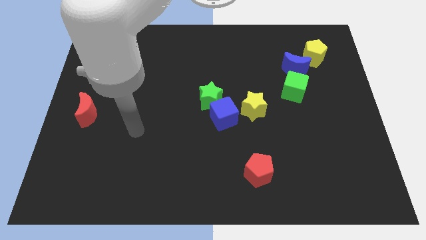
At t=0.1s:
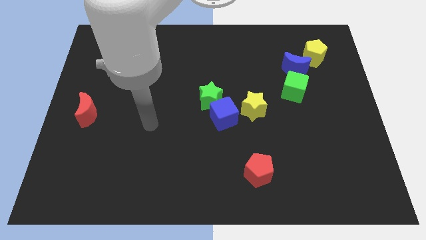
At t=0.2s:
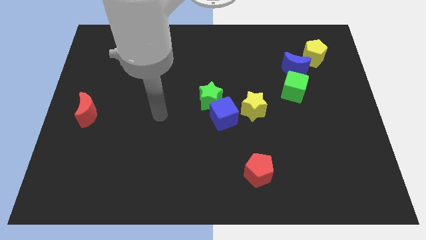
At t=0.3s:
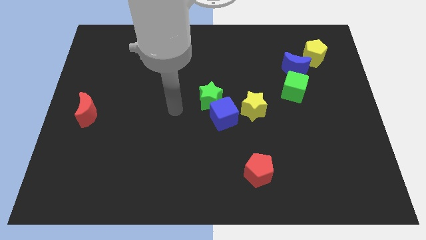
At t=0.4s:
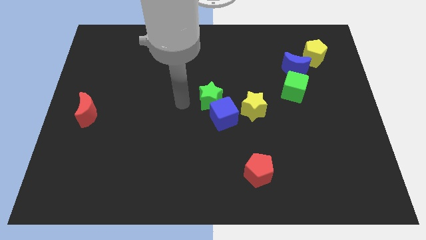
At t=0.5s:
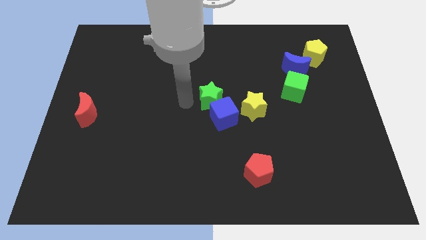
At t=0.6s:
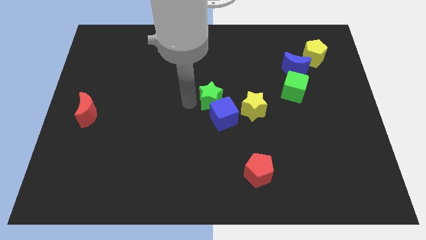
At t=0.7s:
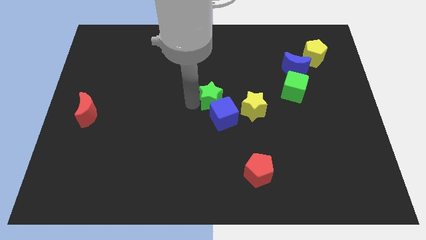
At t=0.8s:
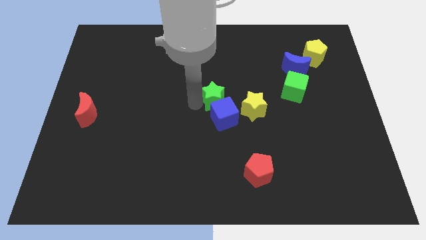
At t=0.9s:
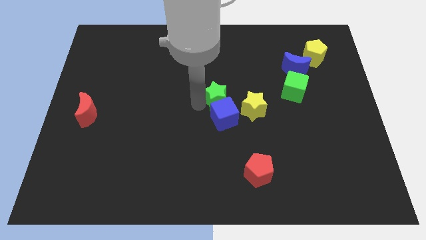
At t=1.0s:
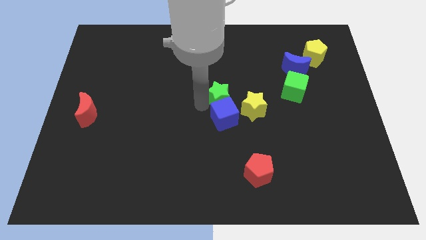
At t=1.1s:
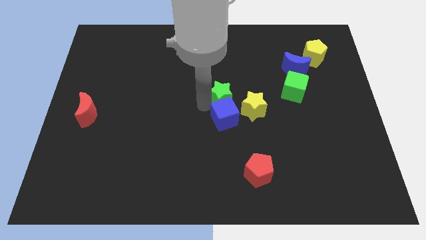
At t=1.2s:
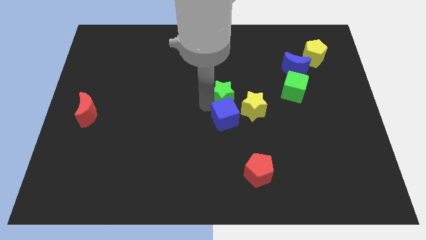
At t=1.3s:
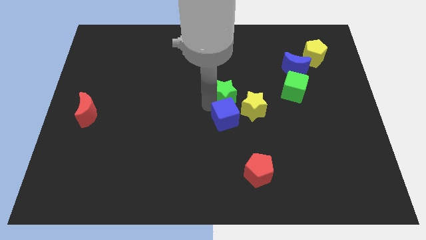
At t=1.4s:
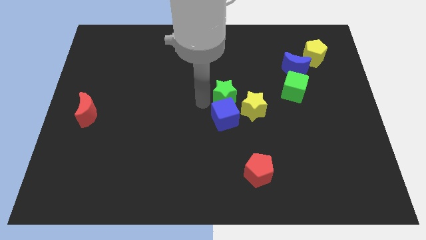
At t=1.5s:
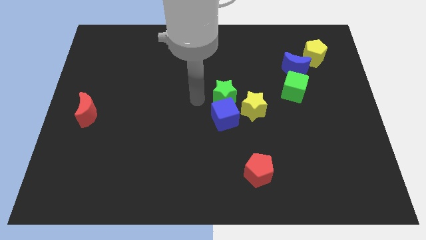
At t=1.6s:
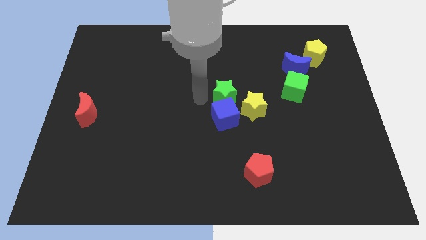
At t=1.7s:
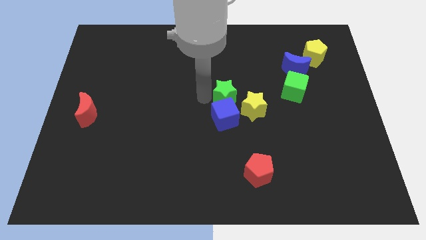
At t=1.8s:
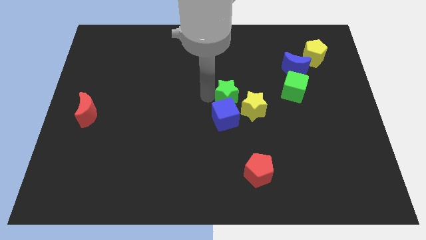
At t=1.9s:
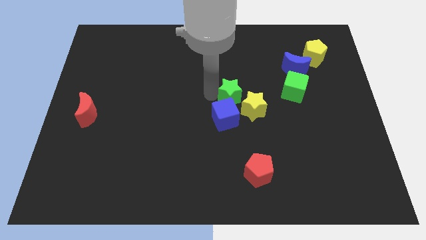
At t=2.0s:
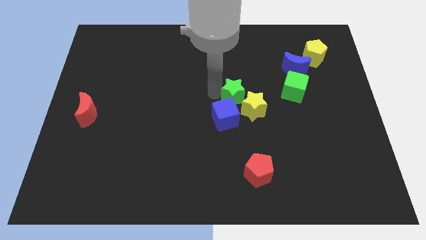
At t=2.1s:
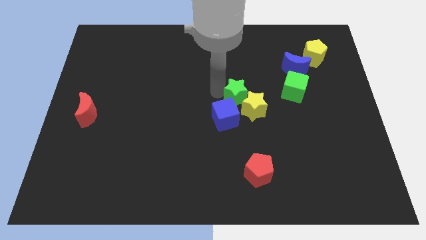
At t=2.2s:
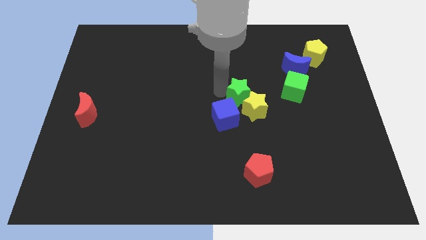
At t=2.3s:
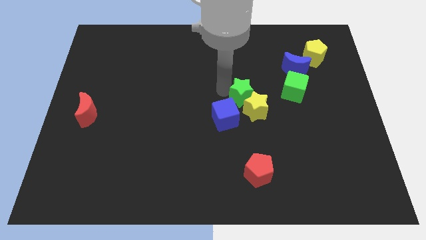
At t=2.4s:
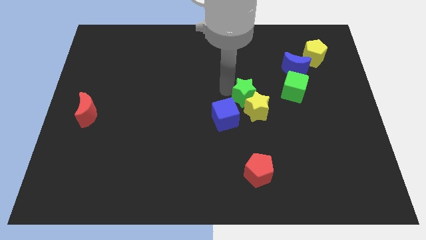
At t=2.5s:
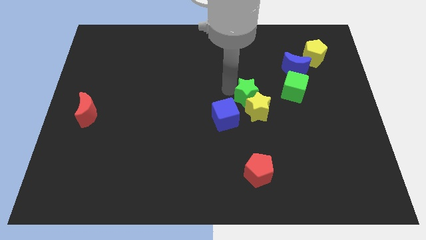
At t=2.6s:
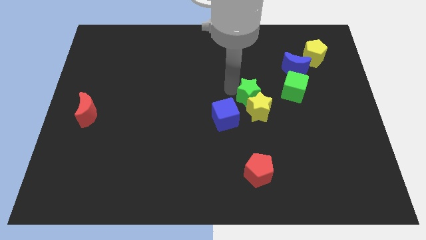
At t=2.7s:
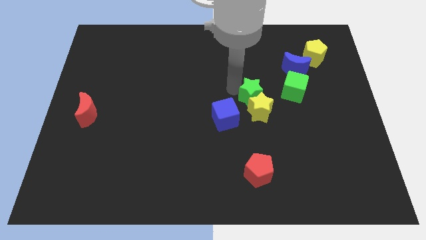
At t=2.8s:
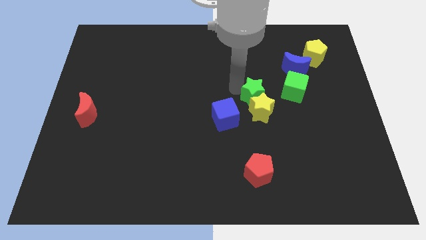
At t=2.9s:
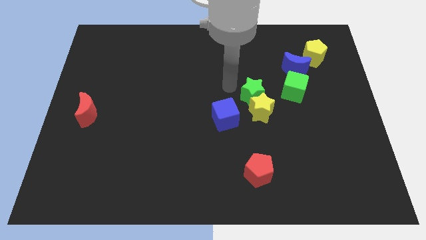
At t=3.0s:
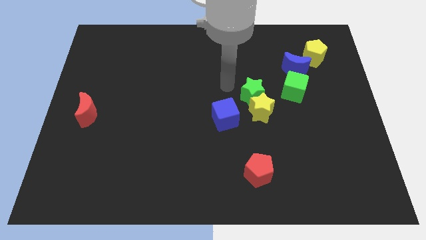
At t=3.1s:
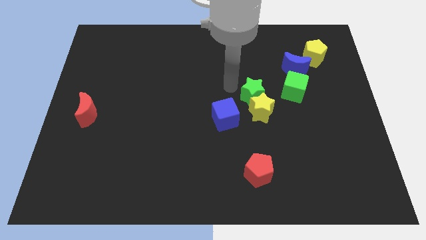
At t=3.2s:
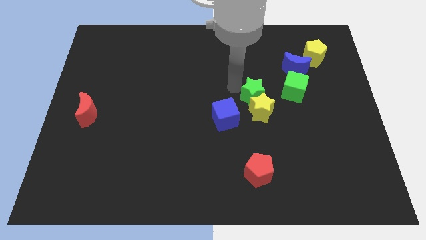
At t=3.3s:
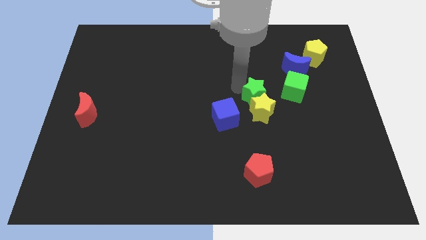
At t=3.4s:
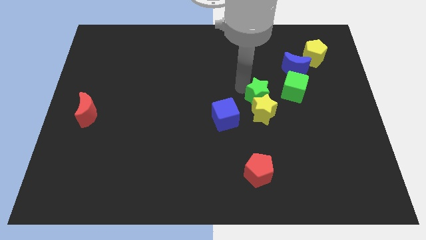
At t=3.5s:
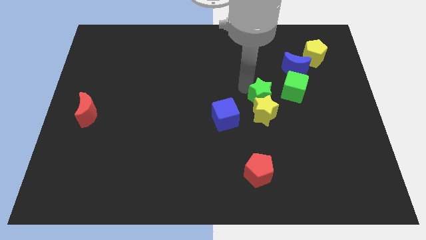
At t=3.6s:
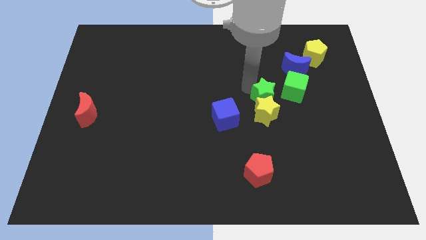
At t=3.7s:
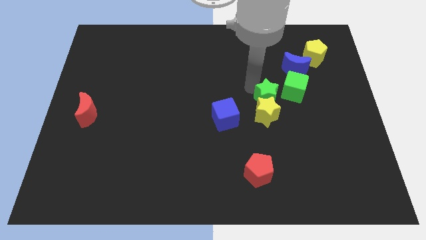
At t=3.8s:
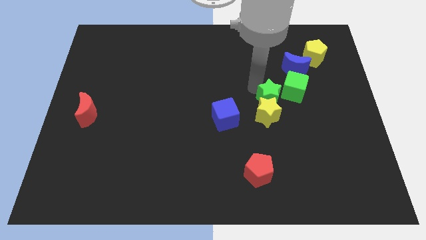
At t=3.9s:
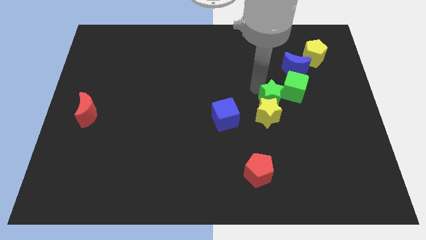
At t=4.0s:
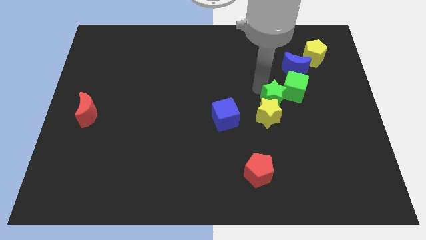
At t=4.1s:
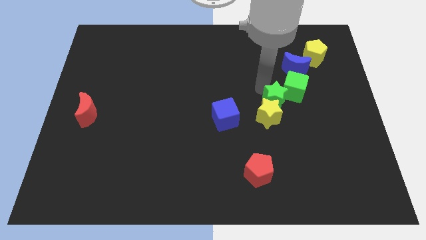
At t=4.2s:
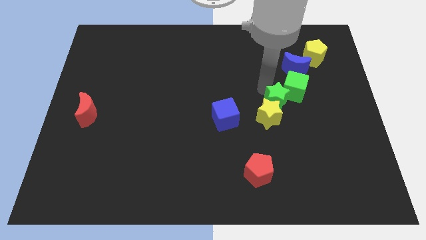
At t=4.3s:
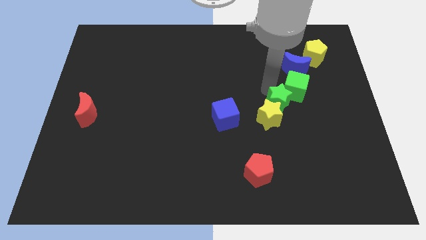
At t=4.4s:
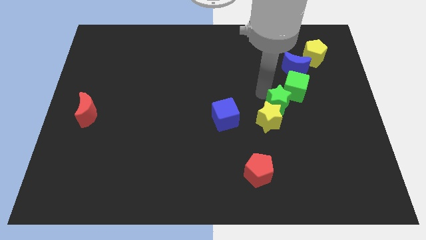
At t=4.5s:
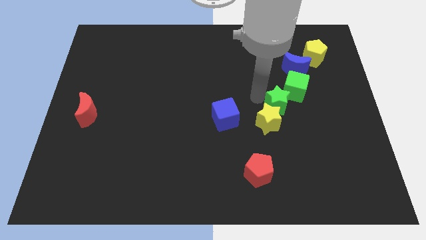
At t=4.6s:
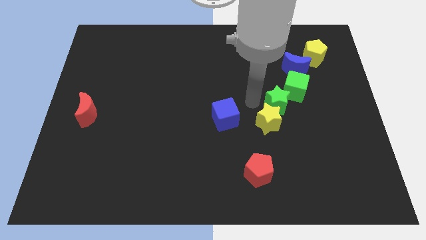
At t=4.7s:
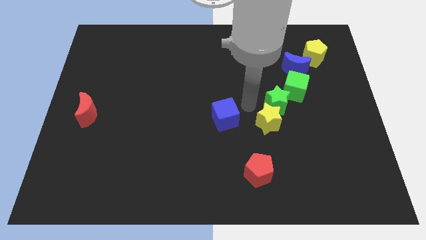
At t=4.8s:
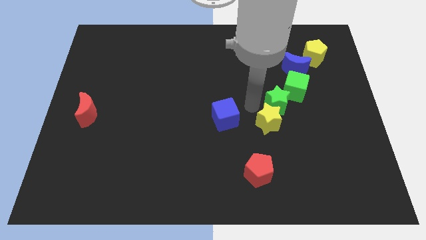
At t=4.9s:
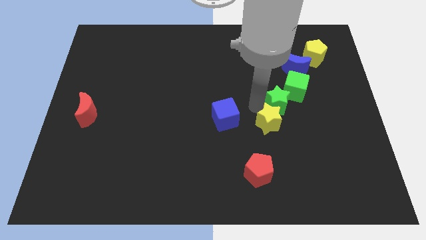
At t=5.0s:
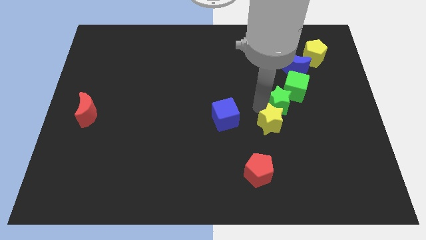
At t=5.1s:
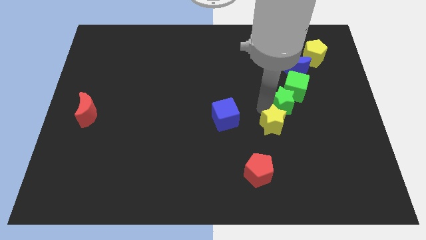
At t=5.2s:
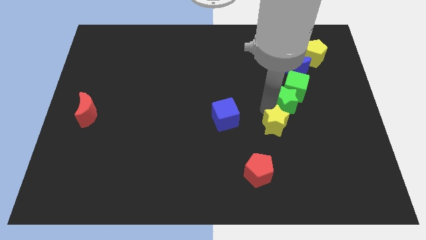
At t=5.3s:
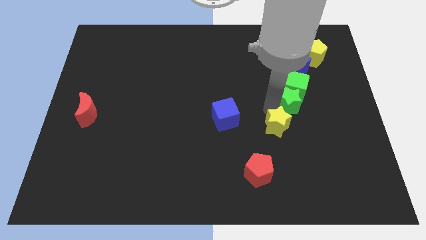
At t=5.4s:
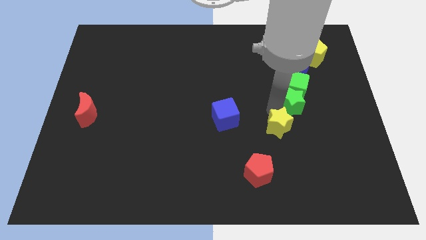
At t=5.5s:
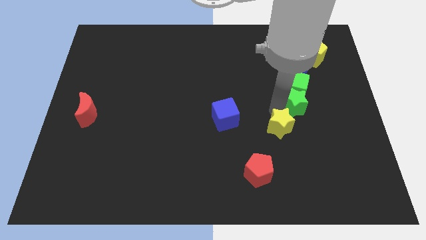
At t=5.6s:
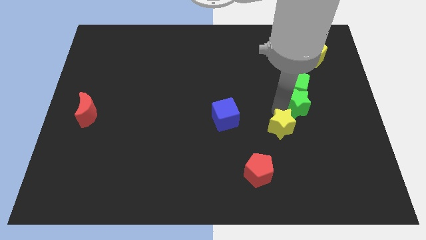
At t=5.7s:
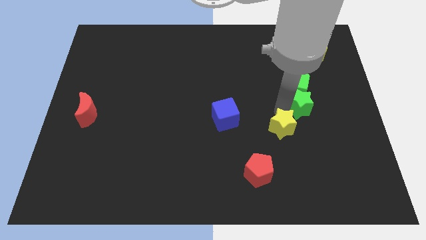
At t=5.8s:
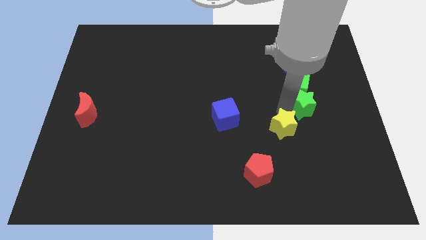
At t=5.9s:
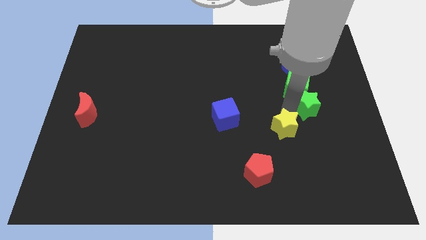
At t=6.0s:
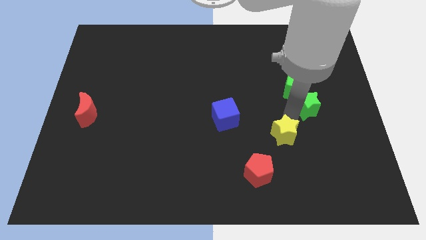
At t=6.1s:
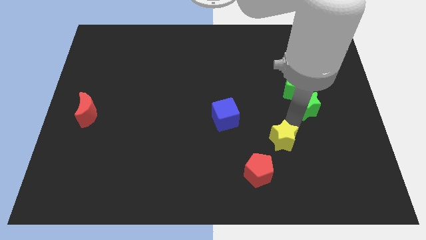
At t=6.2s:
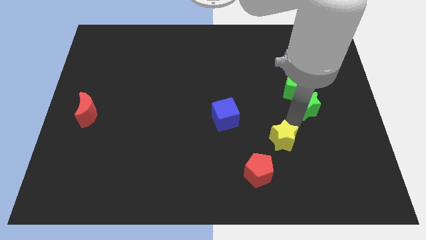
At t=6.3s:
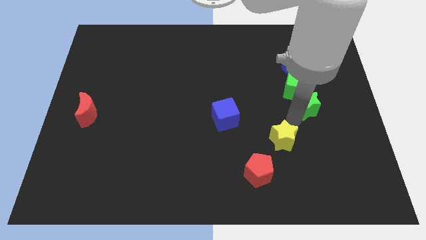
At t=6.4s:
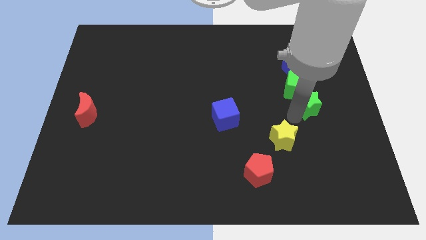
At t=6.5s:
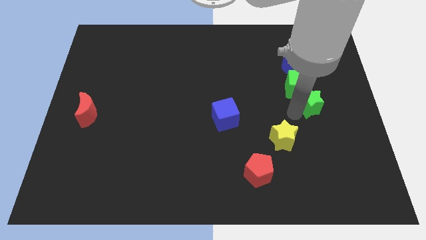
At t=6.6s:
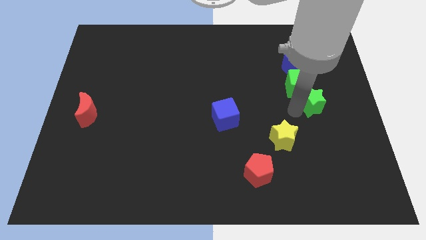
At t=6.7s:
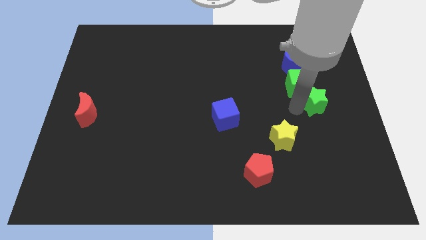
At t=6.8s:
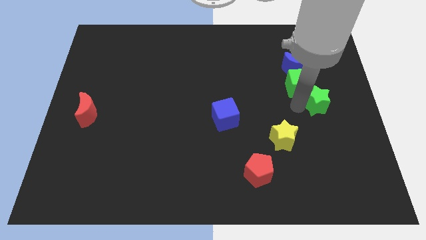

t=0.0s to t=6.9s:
slide the green star to the bottom of the yellow pentagon
